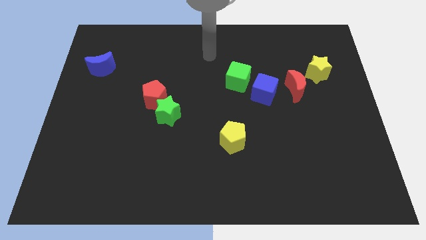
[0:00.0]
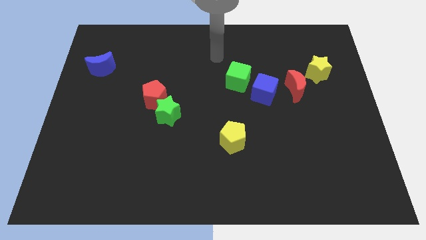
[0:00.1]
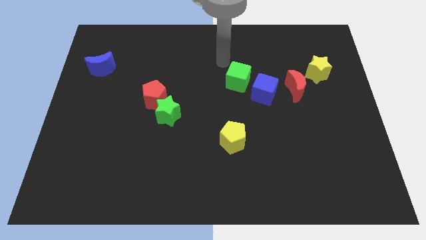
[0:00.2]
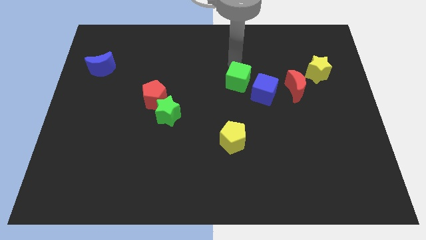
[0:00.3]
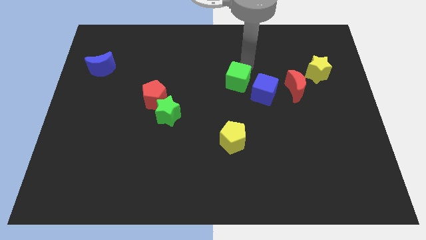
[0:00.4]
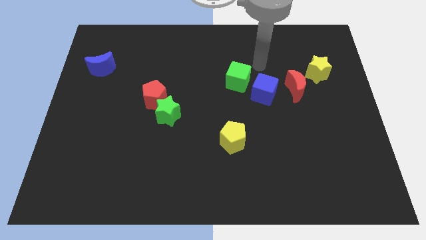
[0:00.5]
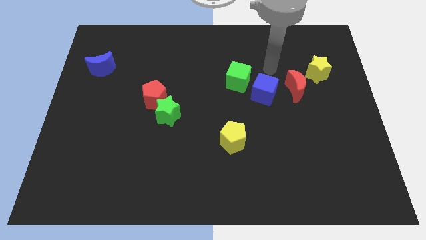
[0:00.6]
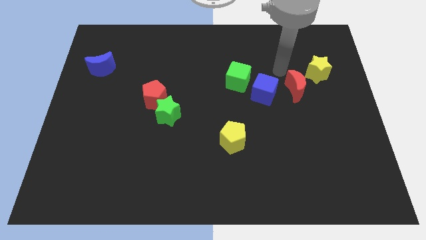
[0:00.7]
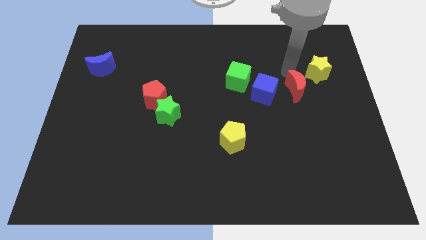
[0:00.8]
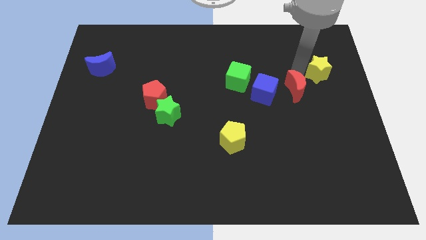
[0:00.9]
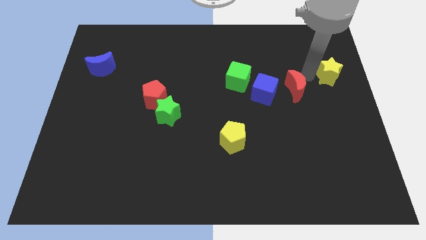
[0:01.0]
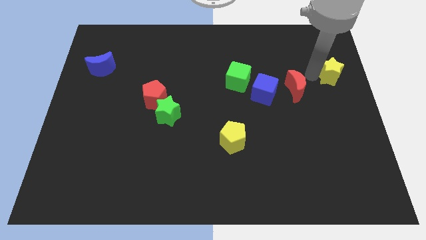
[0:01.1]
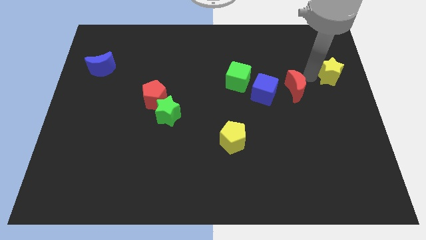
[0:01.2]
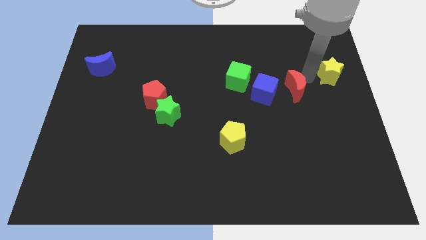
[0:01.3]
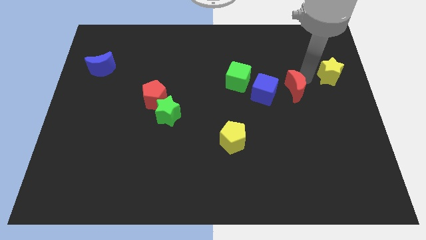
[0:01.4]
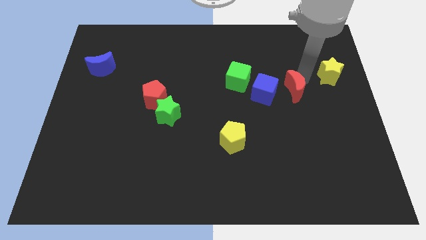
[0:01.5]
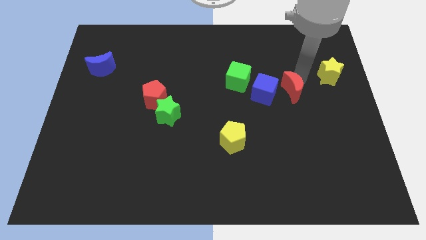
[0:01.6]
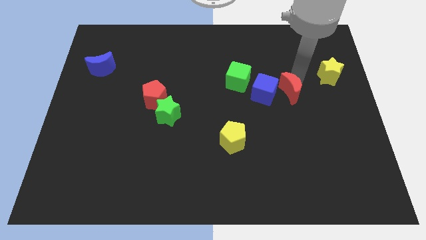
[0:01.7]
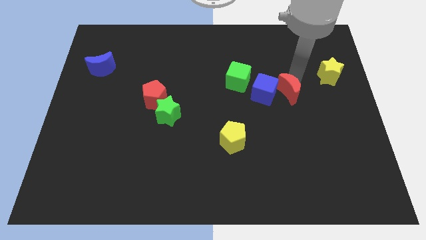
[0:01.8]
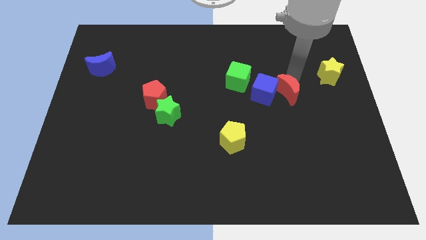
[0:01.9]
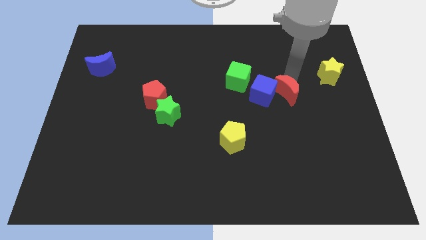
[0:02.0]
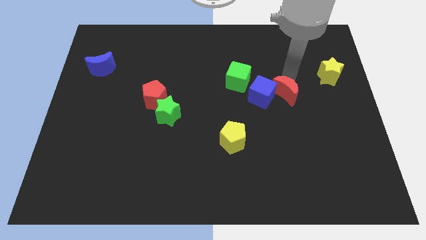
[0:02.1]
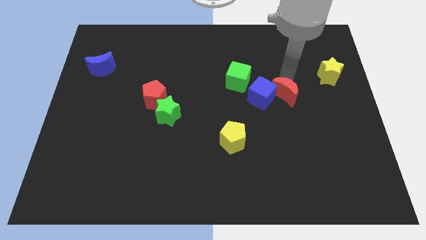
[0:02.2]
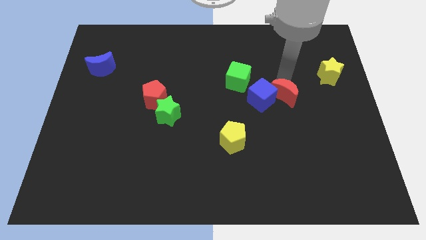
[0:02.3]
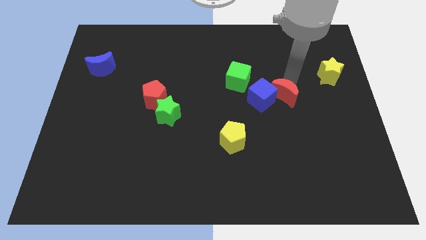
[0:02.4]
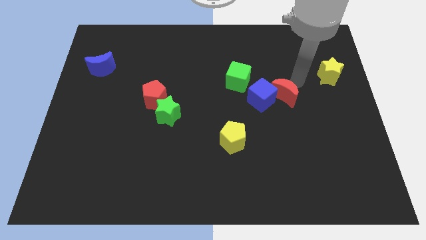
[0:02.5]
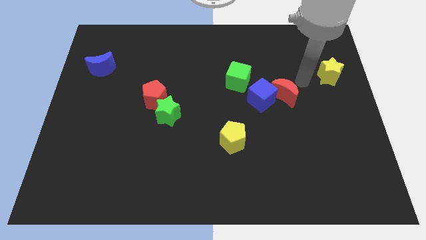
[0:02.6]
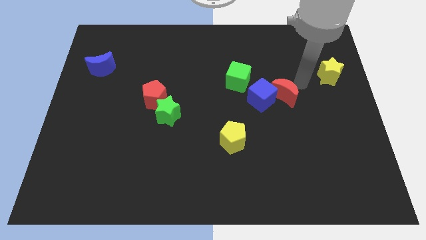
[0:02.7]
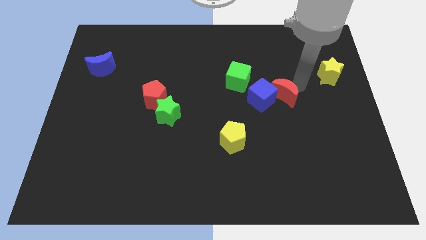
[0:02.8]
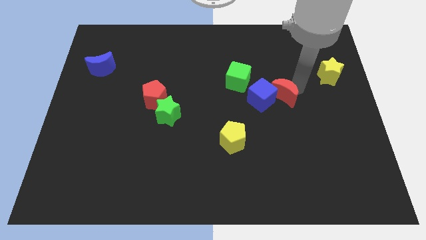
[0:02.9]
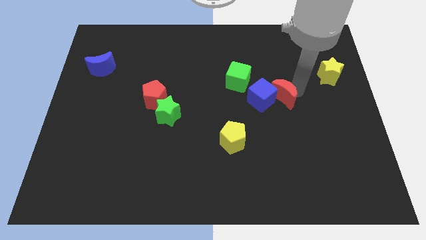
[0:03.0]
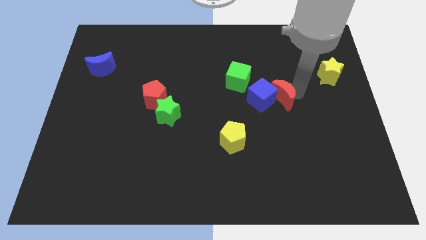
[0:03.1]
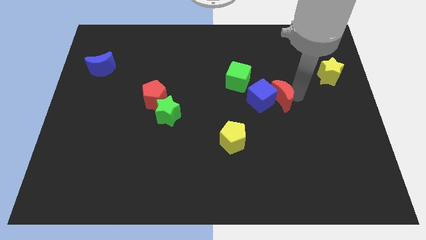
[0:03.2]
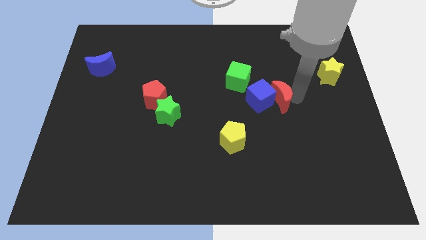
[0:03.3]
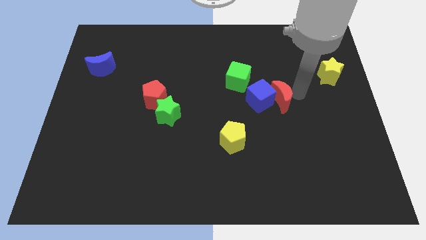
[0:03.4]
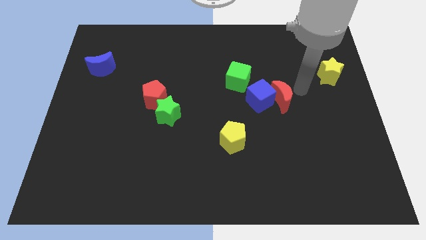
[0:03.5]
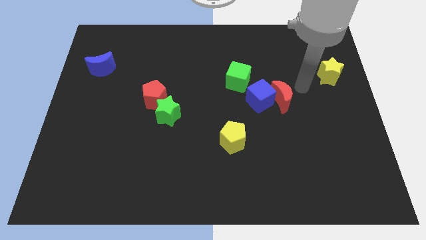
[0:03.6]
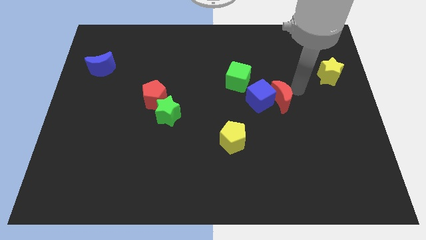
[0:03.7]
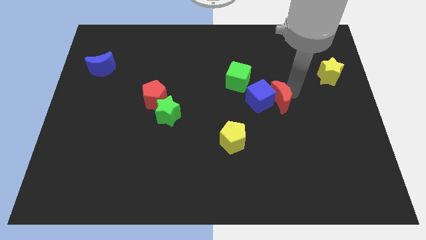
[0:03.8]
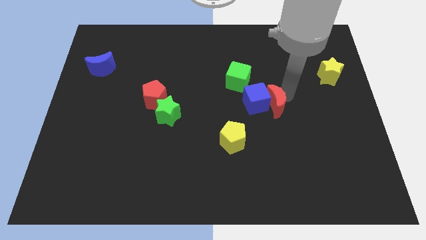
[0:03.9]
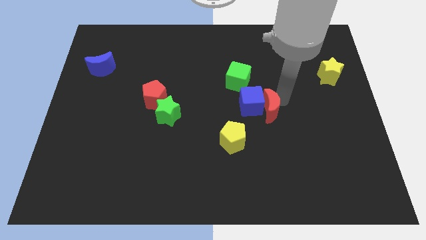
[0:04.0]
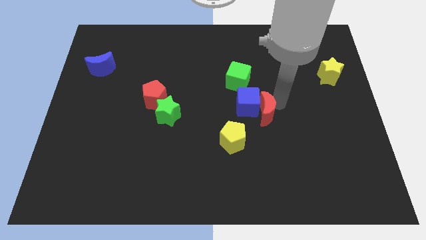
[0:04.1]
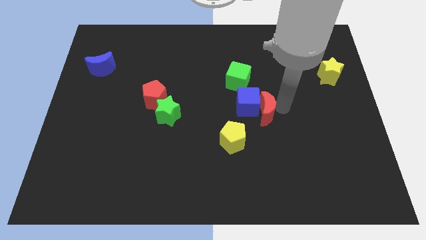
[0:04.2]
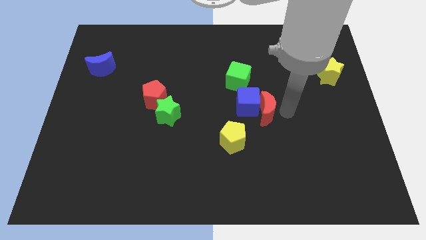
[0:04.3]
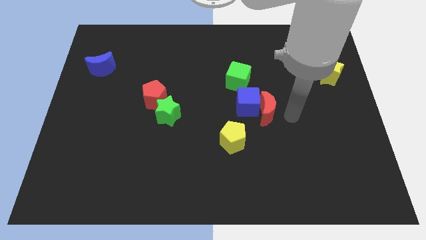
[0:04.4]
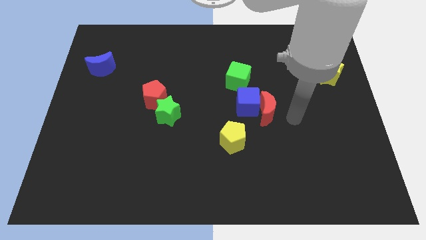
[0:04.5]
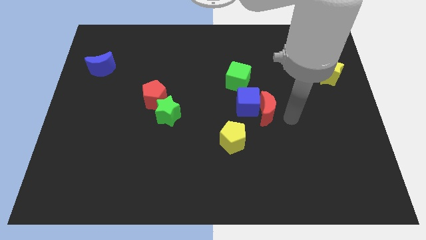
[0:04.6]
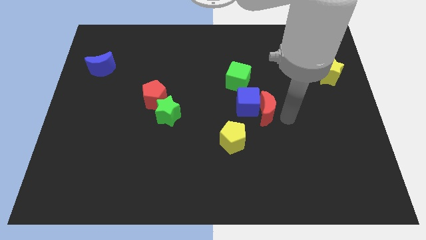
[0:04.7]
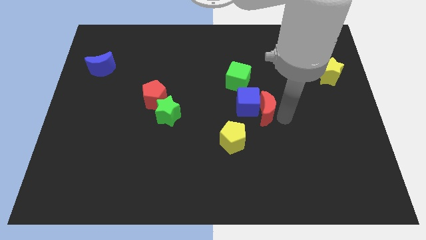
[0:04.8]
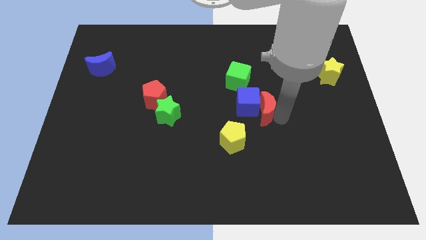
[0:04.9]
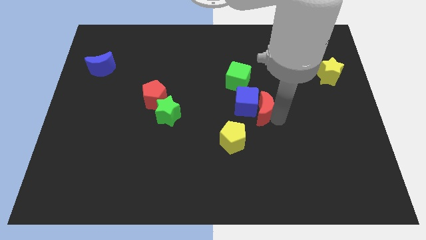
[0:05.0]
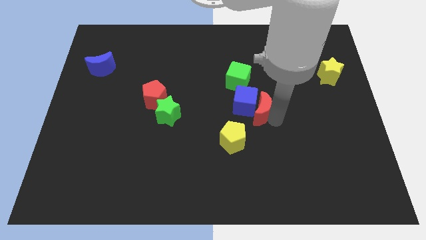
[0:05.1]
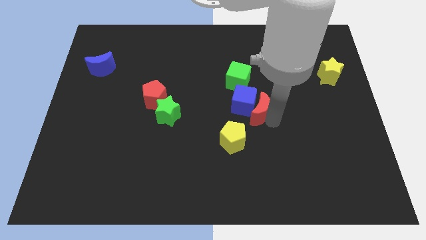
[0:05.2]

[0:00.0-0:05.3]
slide the red moon left a bit

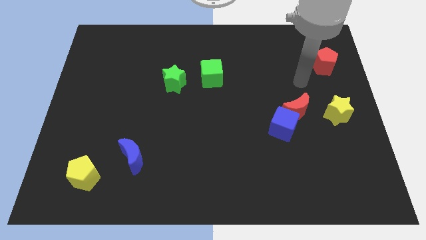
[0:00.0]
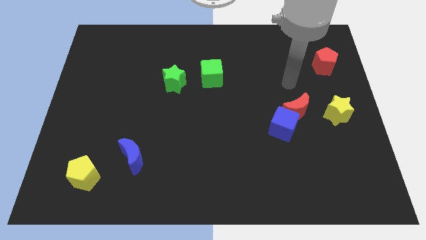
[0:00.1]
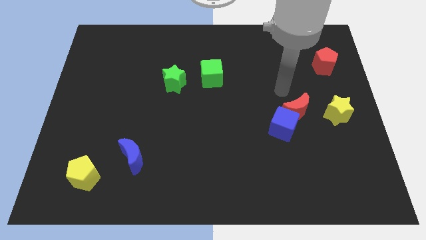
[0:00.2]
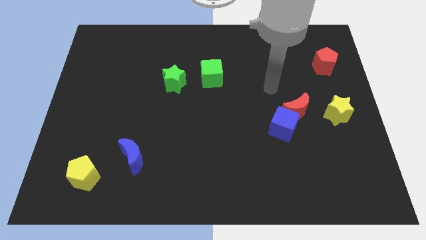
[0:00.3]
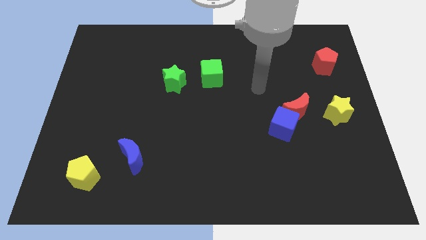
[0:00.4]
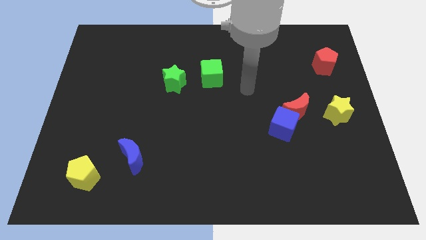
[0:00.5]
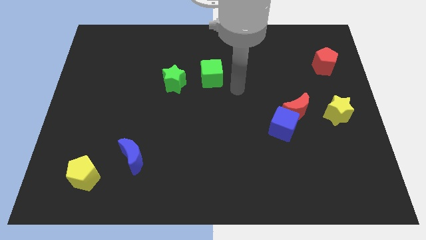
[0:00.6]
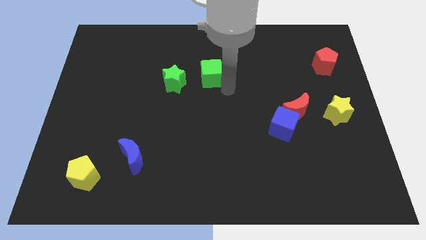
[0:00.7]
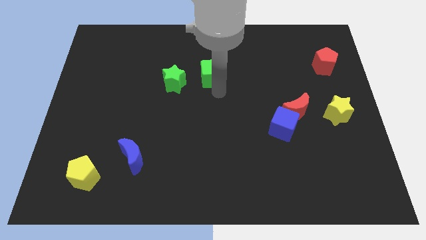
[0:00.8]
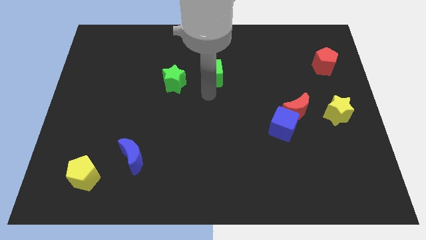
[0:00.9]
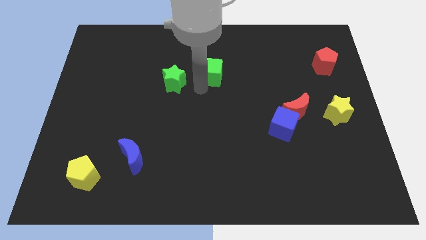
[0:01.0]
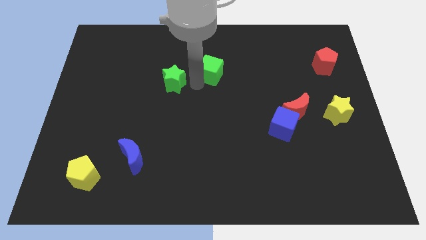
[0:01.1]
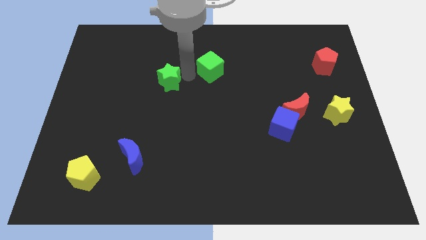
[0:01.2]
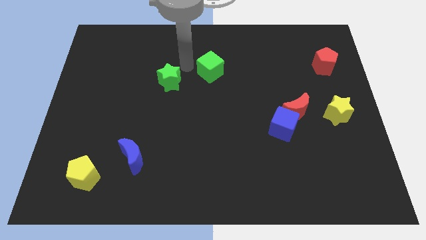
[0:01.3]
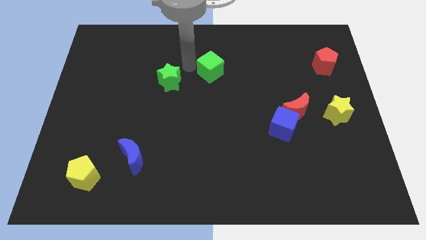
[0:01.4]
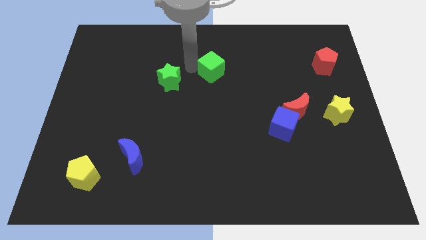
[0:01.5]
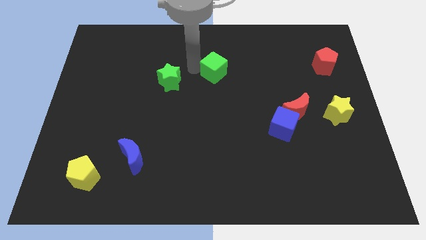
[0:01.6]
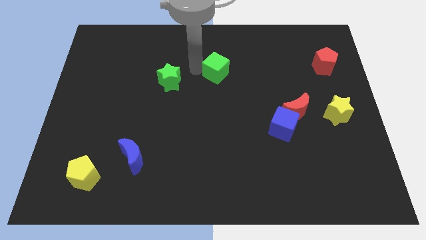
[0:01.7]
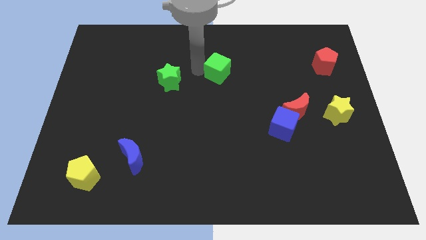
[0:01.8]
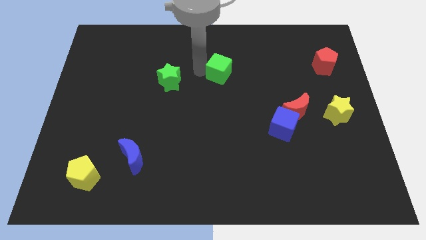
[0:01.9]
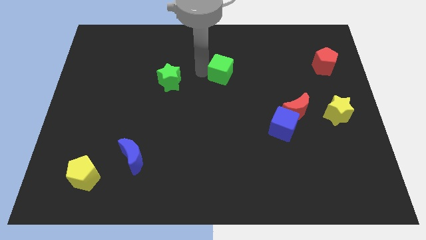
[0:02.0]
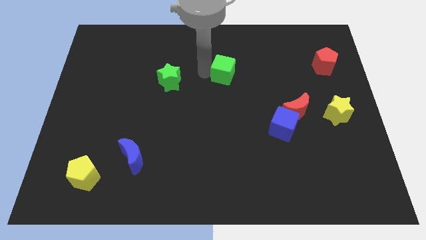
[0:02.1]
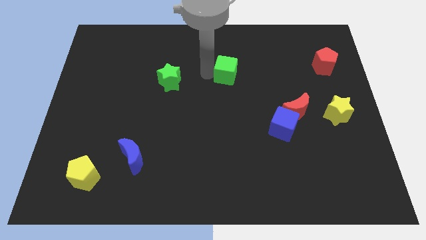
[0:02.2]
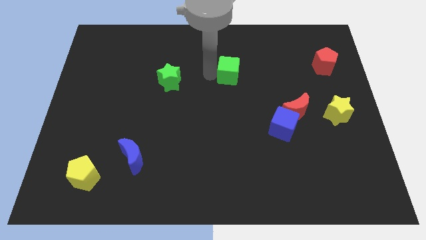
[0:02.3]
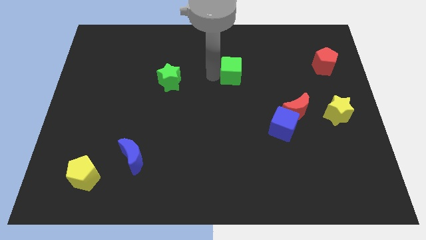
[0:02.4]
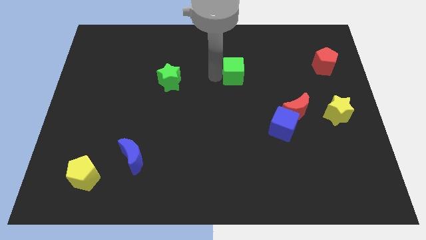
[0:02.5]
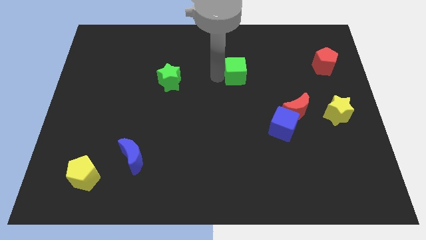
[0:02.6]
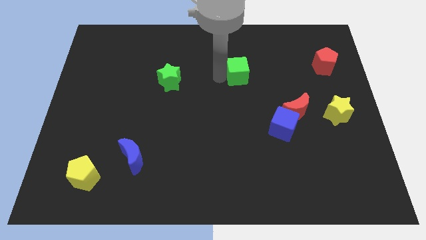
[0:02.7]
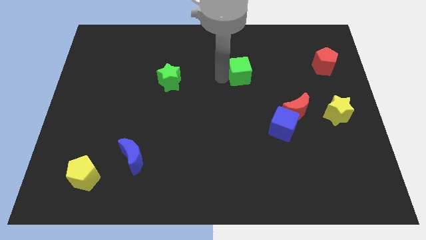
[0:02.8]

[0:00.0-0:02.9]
move the green cube a bit right
